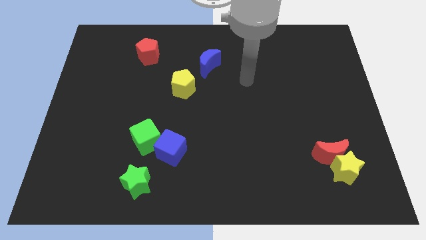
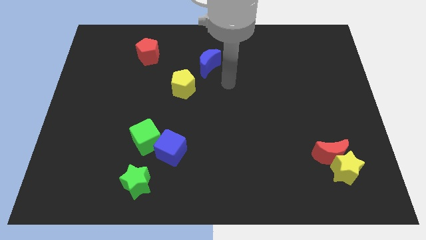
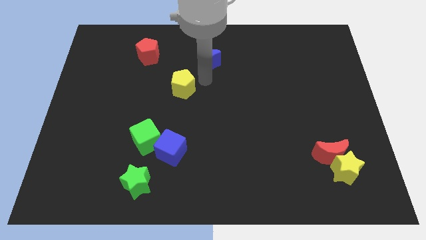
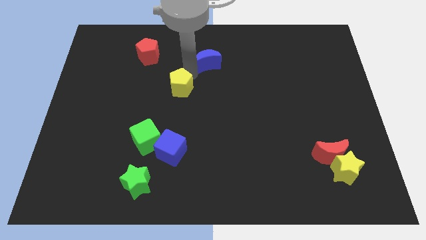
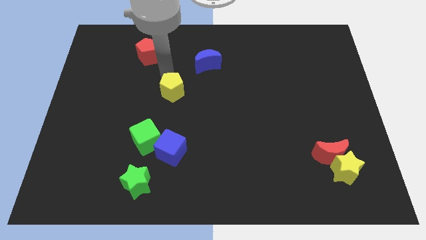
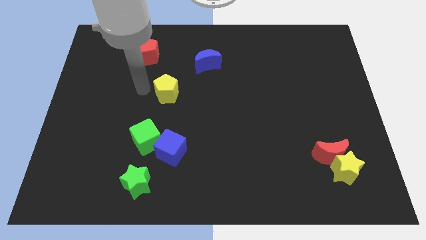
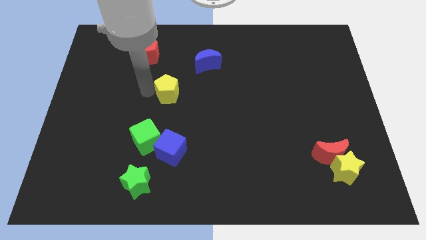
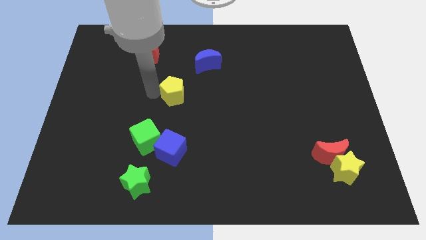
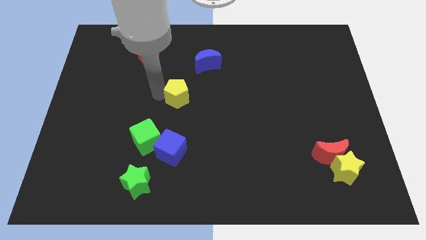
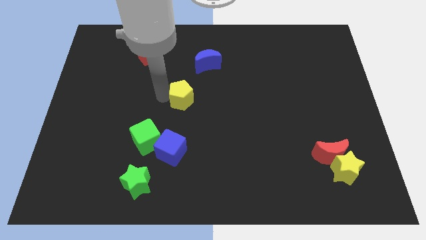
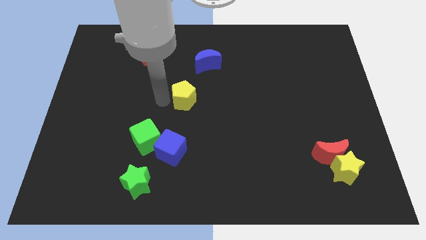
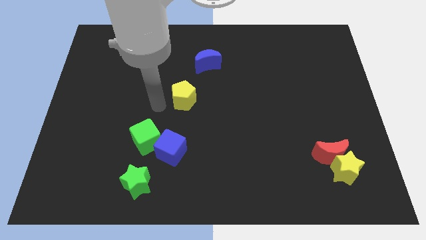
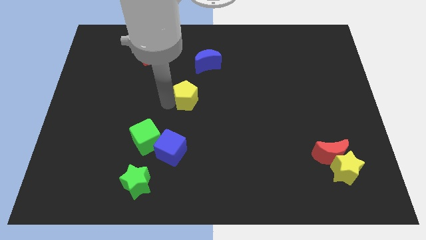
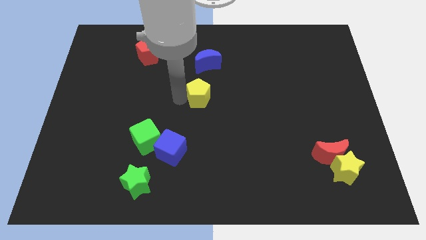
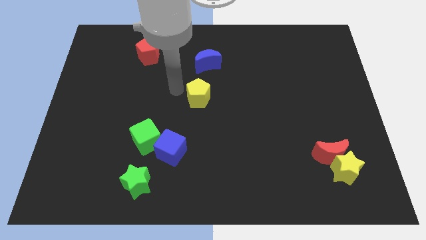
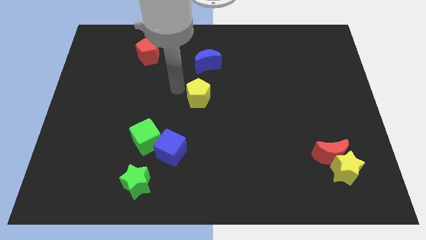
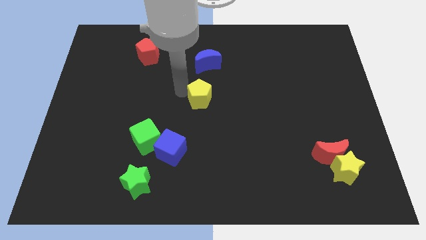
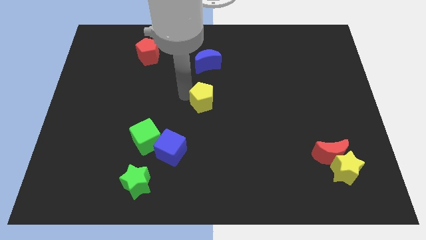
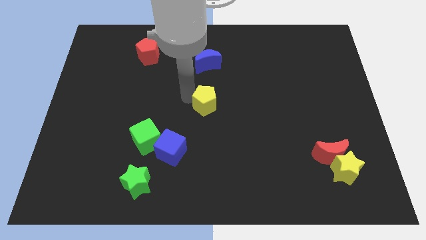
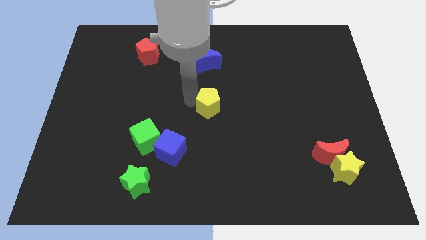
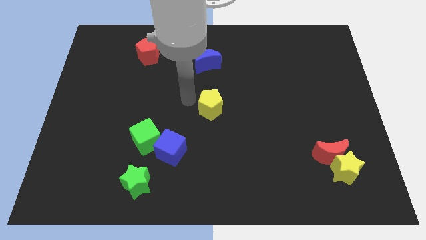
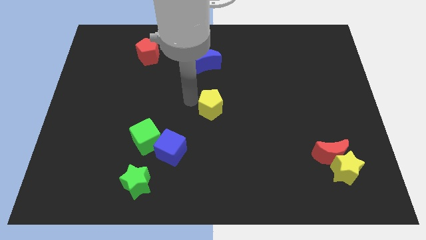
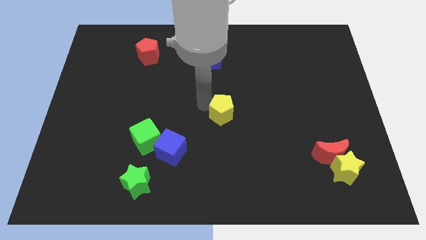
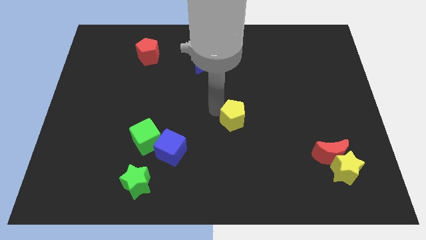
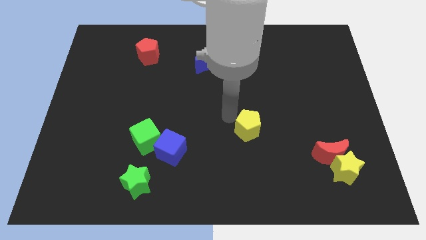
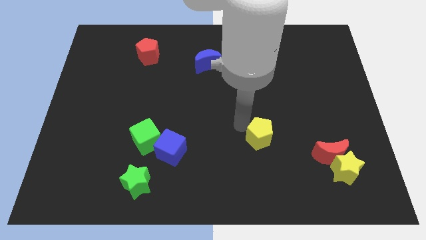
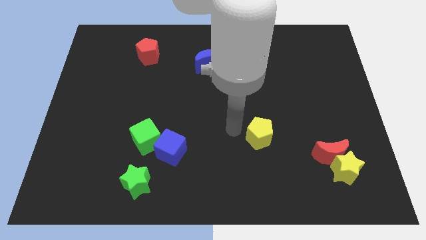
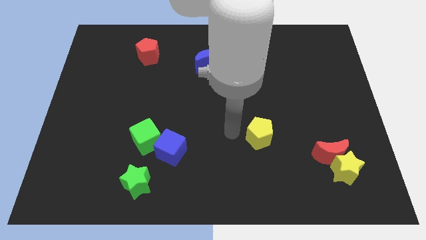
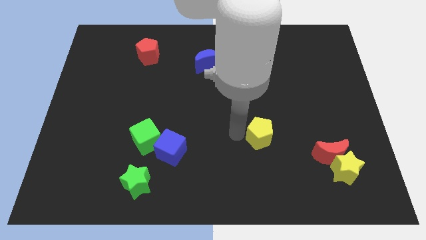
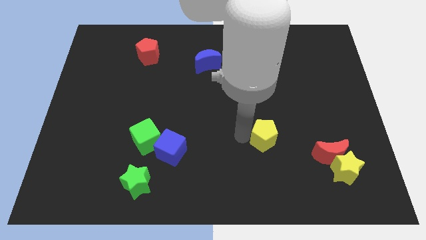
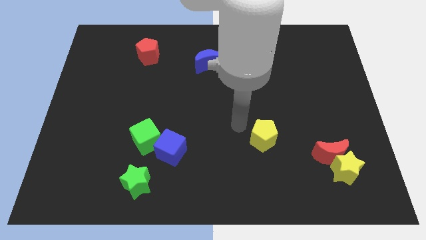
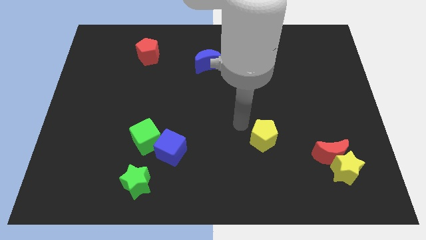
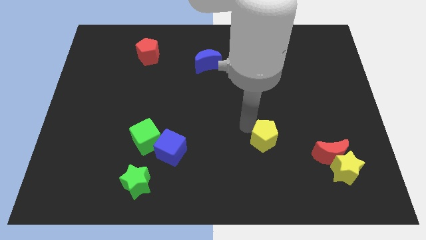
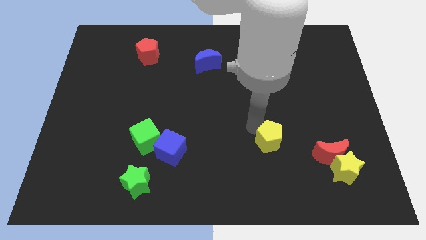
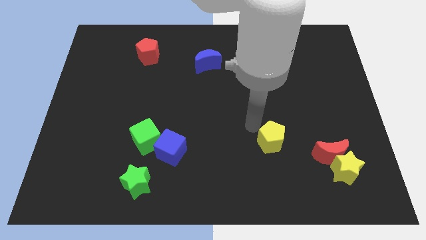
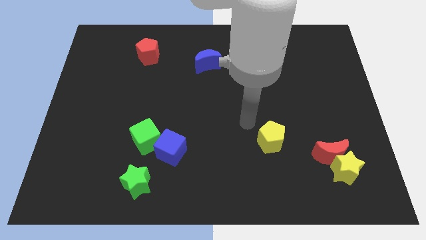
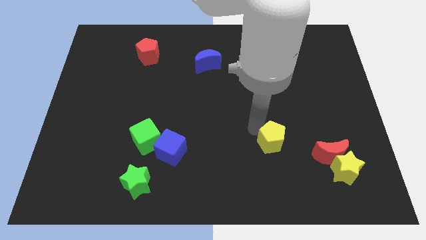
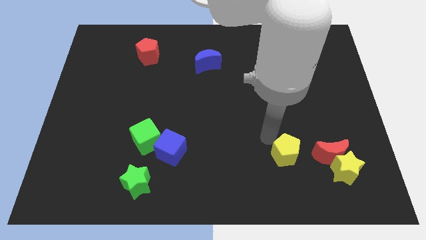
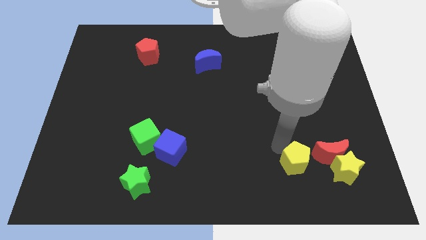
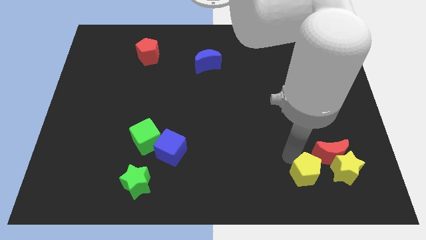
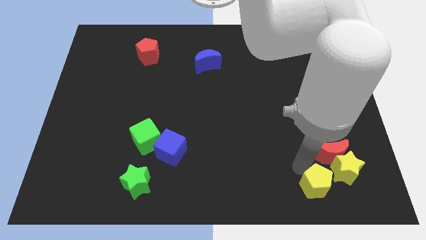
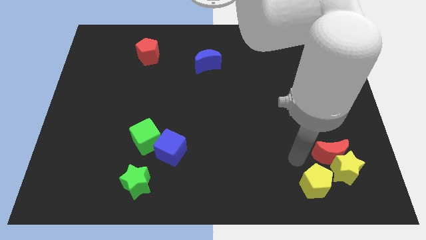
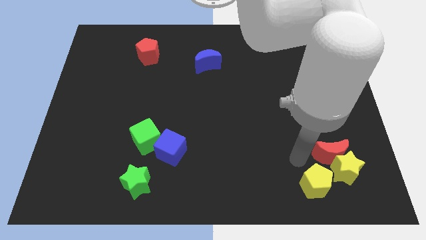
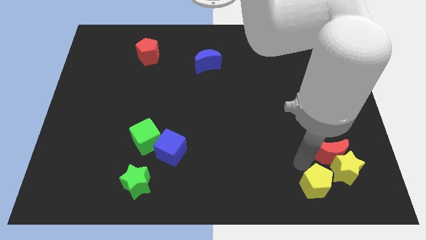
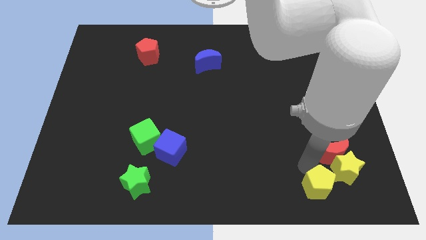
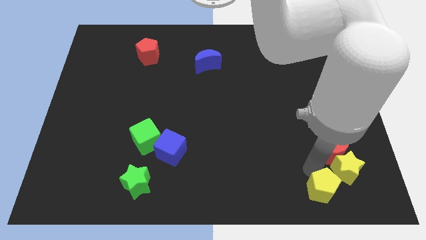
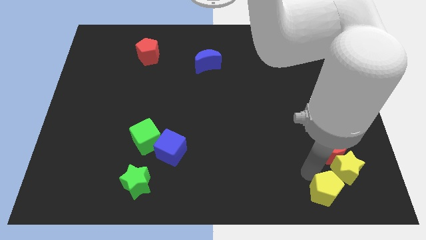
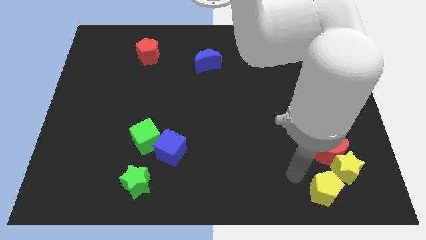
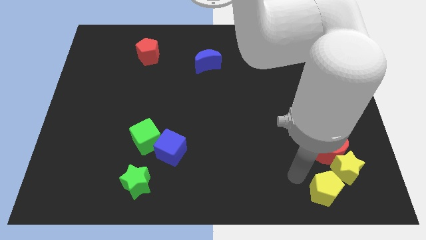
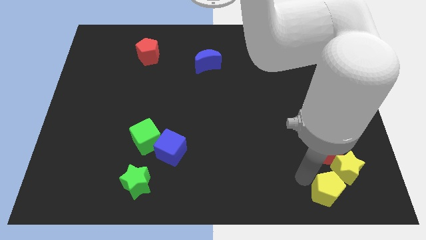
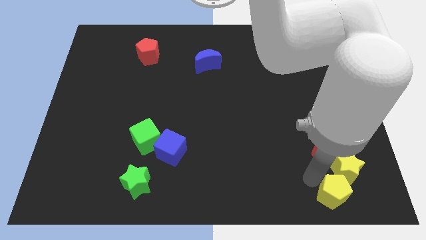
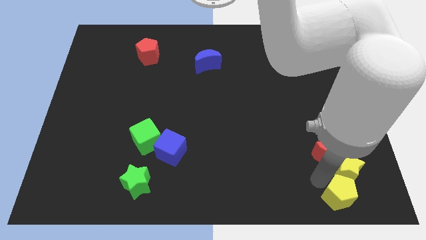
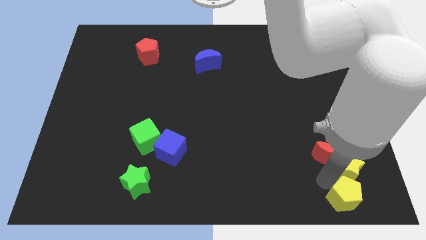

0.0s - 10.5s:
push the yellow pentagon to the bottom right

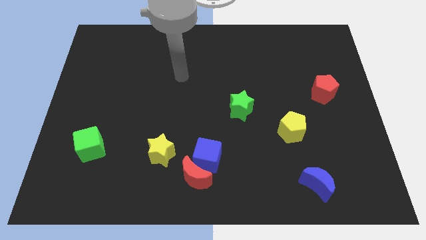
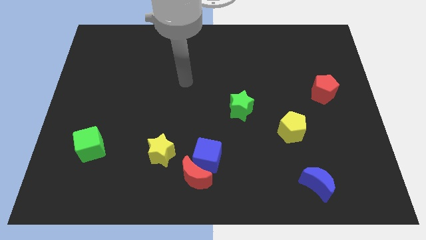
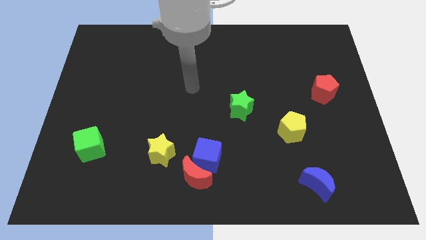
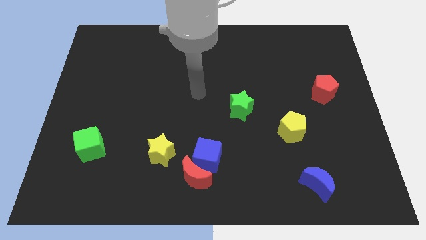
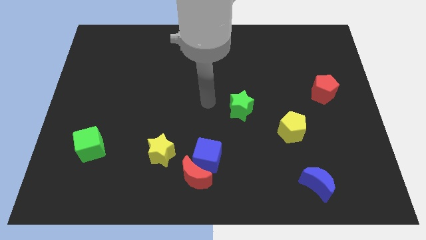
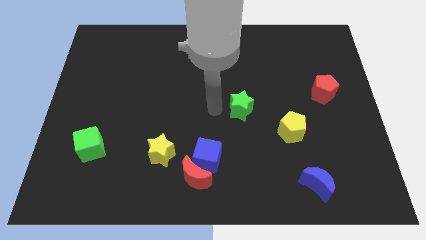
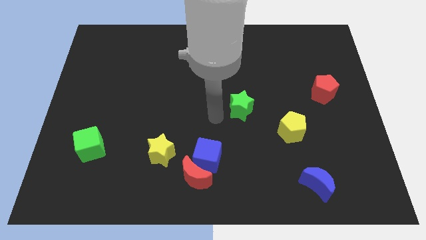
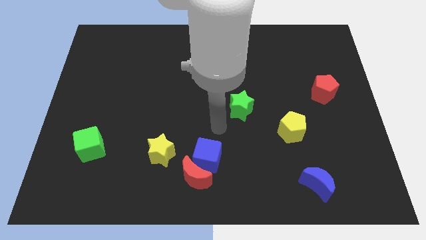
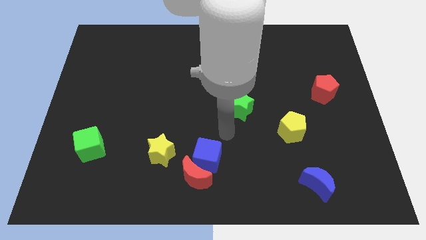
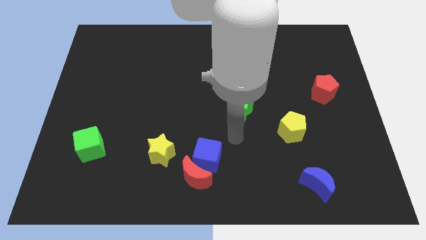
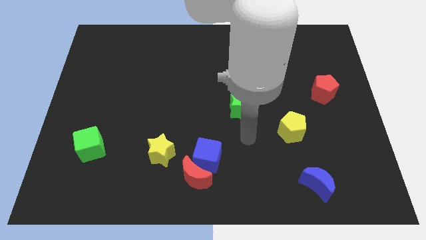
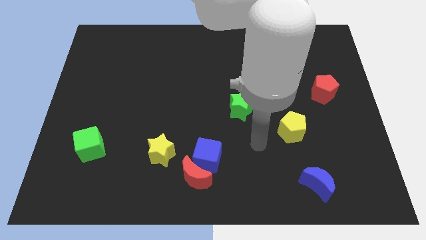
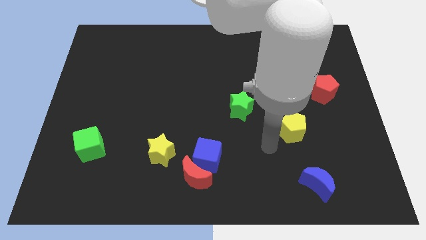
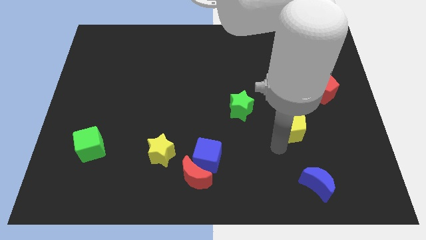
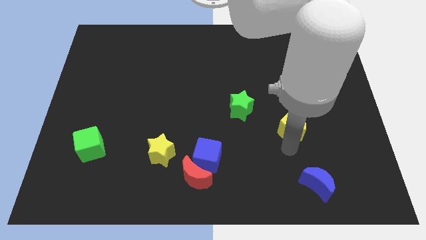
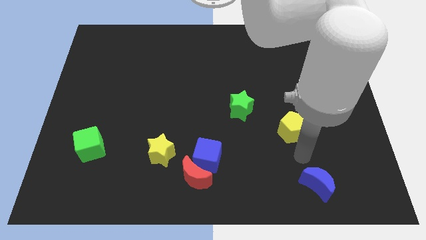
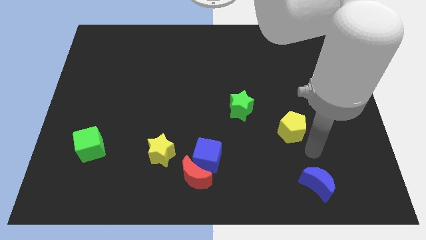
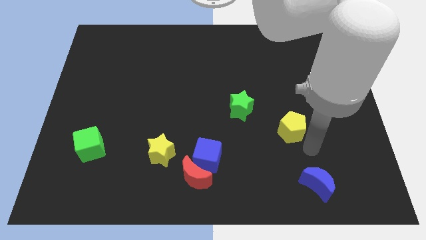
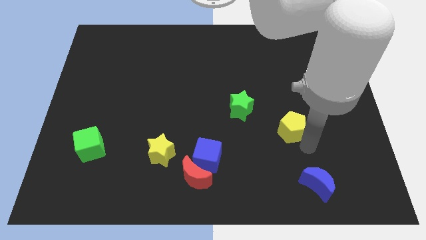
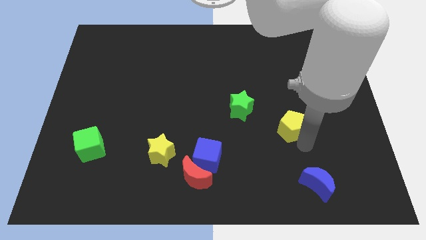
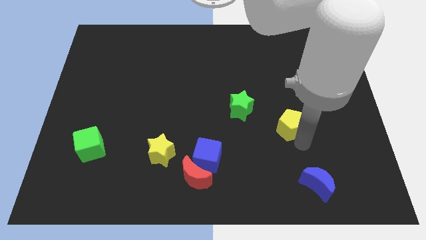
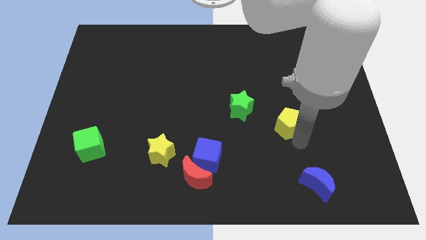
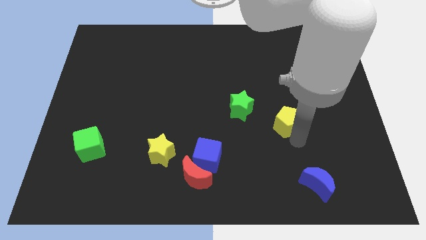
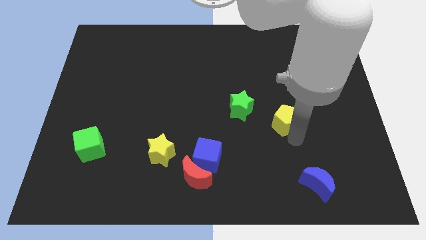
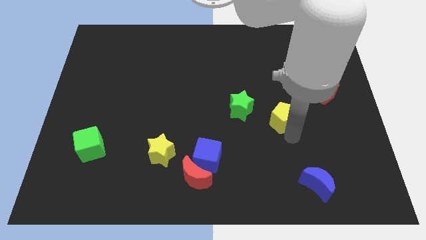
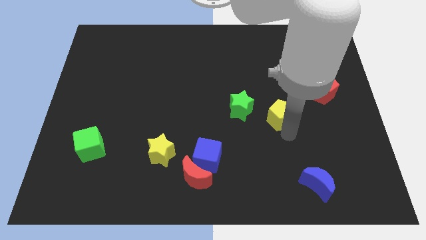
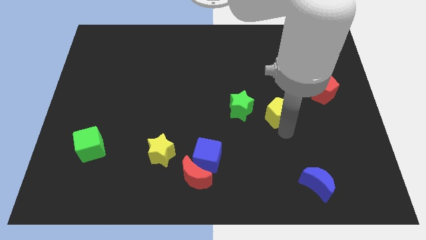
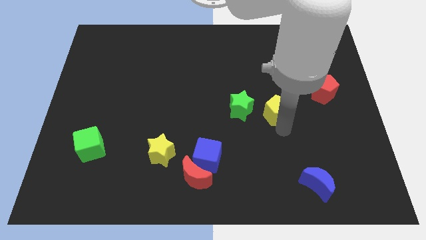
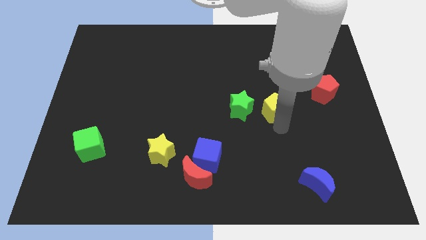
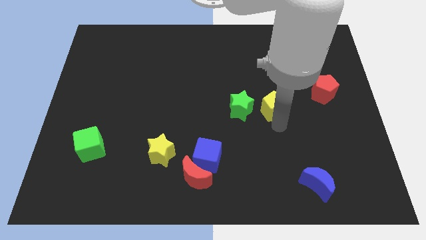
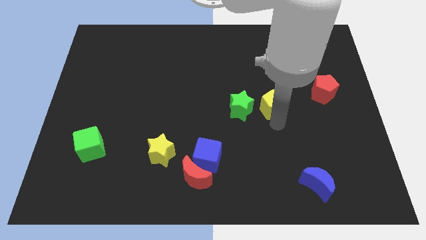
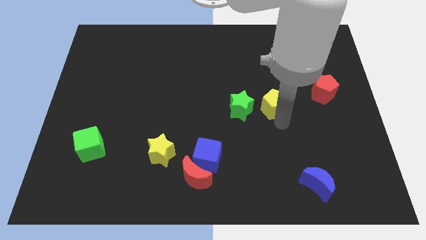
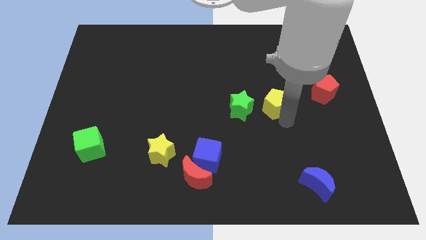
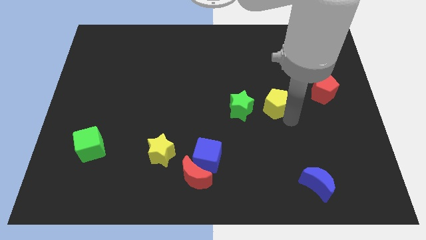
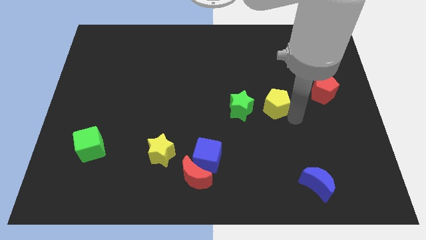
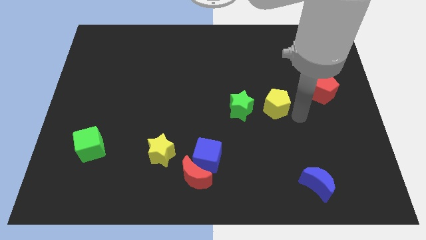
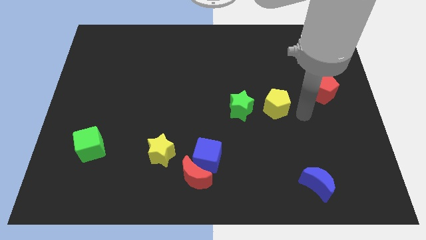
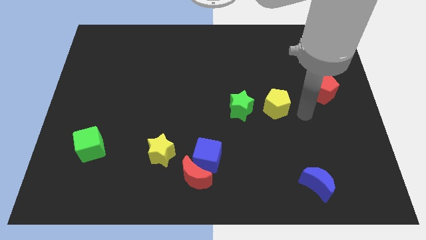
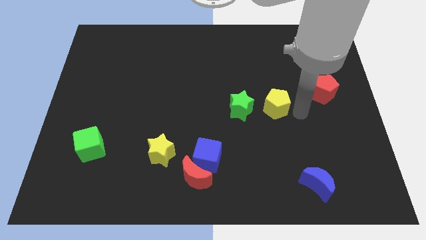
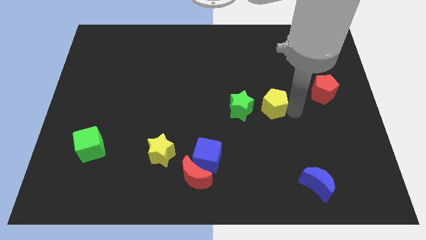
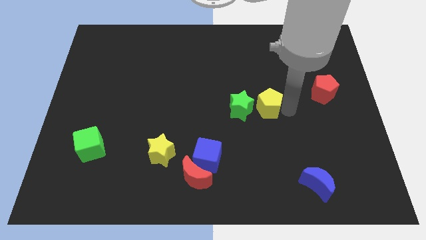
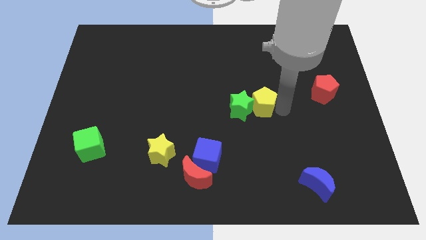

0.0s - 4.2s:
push the yellow pentagon to the center
